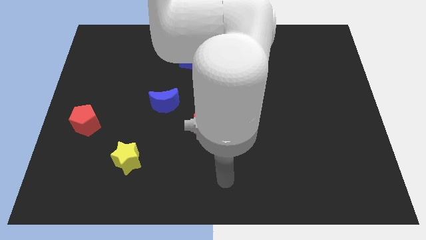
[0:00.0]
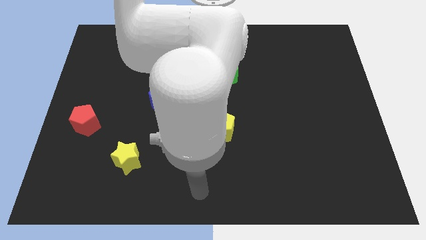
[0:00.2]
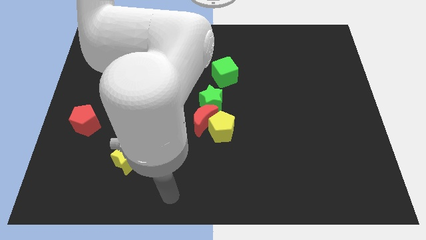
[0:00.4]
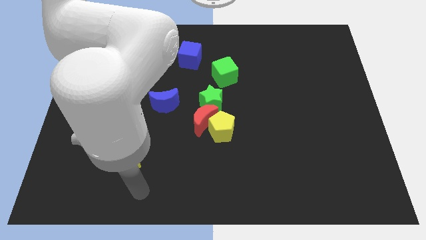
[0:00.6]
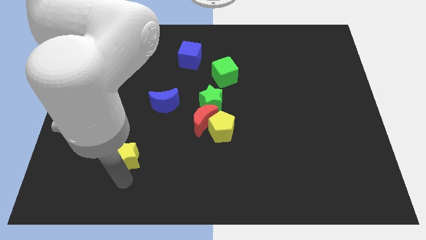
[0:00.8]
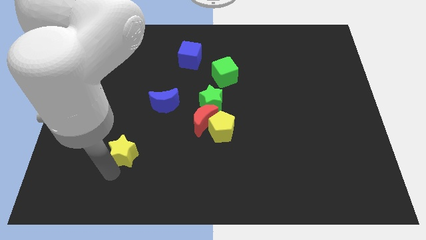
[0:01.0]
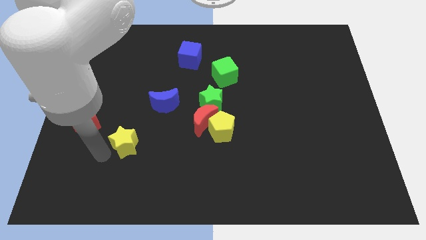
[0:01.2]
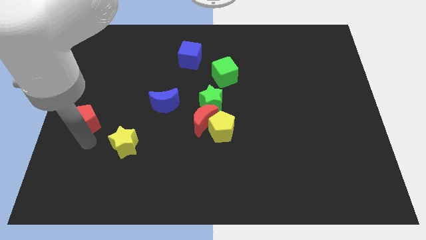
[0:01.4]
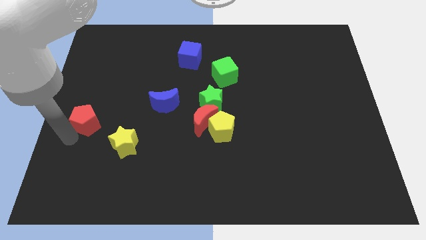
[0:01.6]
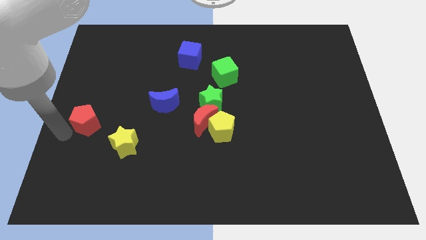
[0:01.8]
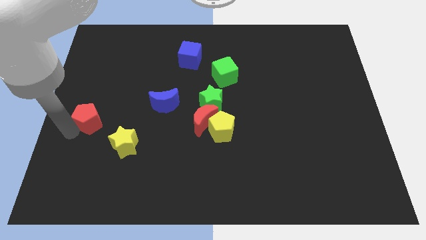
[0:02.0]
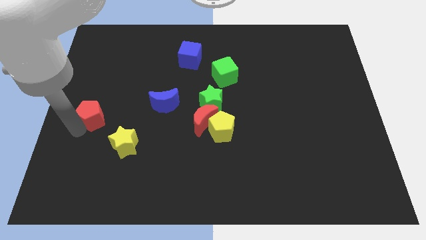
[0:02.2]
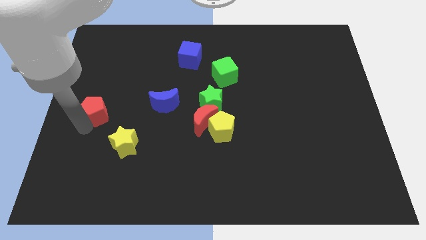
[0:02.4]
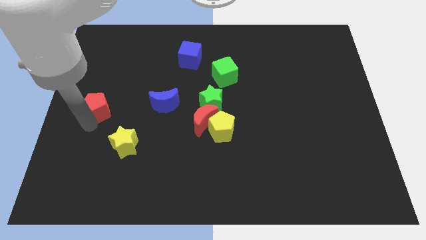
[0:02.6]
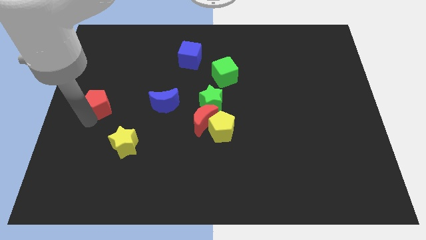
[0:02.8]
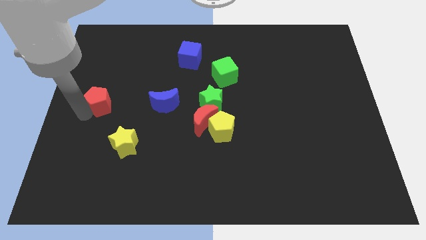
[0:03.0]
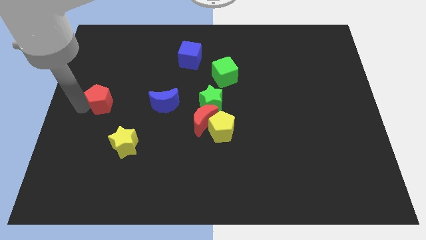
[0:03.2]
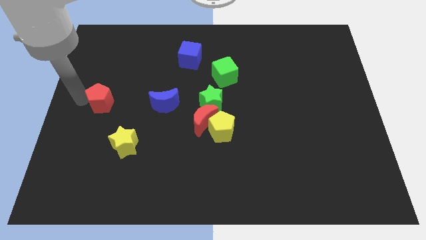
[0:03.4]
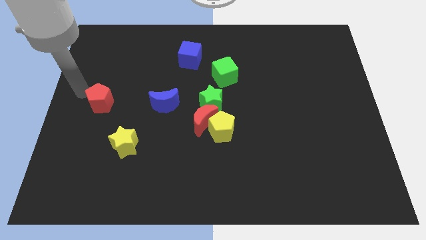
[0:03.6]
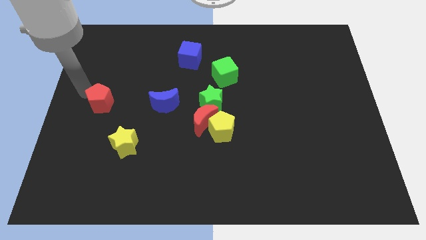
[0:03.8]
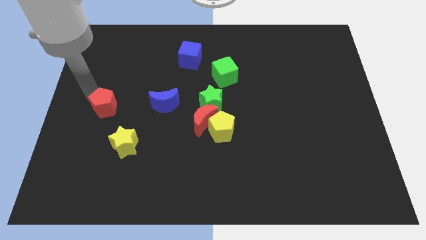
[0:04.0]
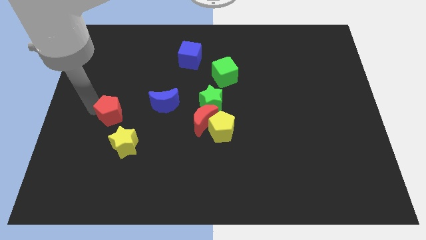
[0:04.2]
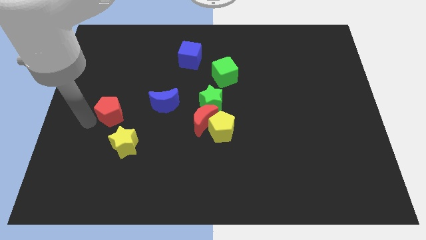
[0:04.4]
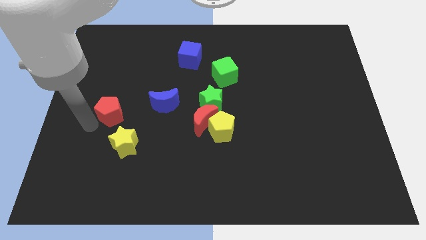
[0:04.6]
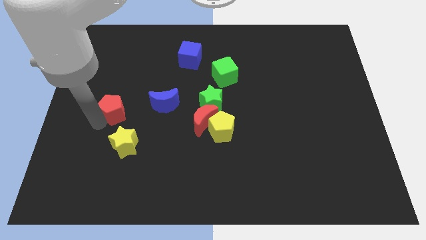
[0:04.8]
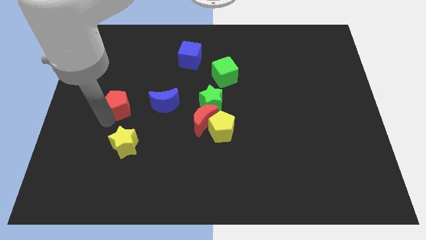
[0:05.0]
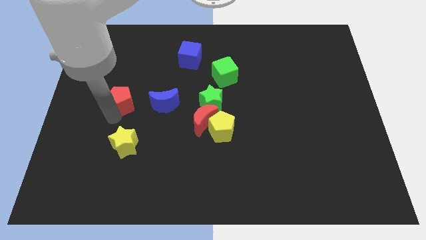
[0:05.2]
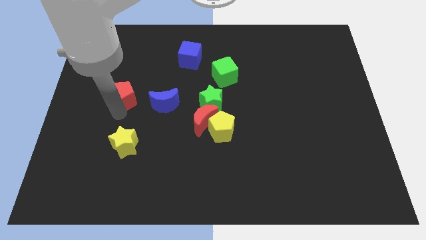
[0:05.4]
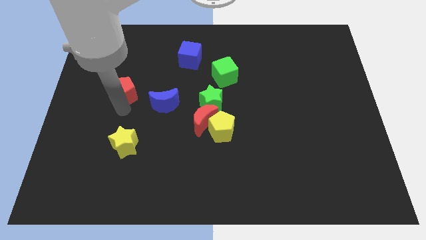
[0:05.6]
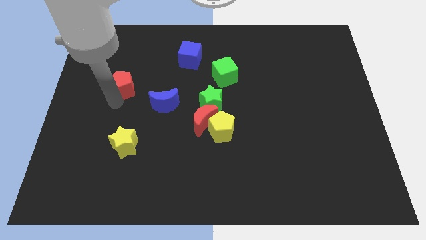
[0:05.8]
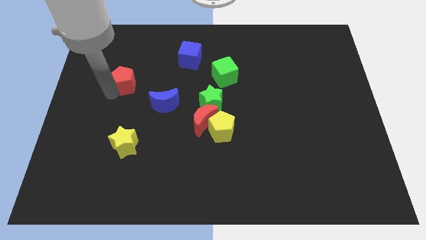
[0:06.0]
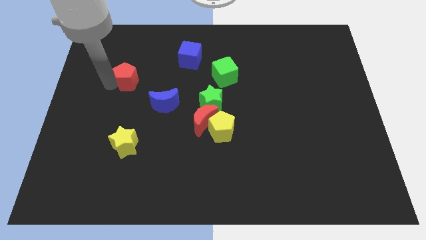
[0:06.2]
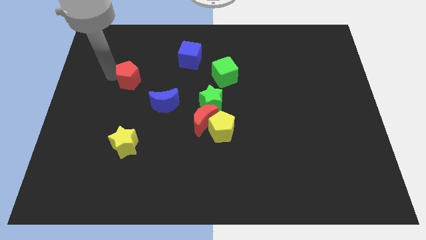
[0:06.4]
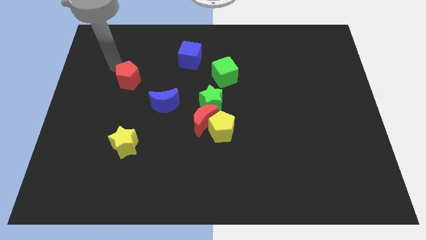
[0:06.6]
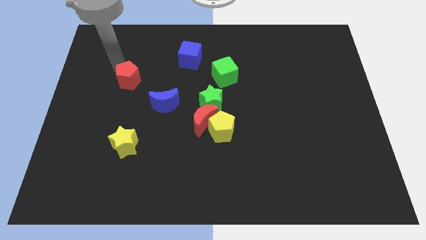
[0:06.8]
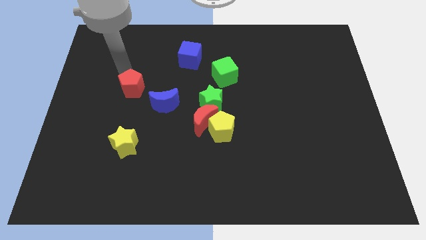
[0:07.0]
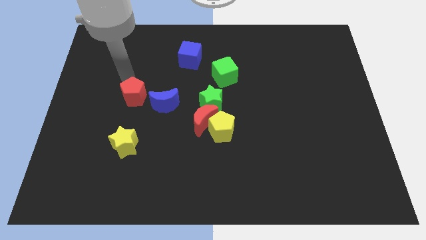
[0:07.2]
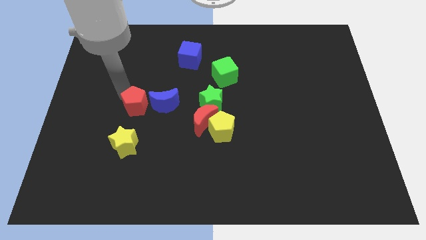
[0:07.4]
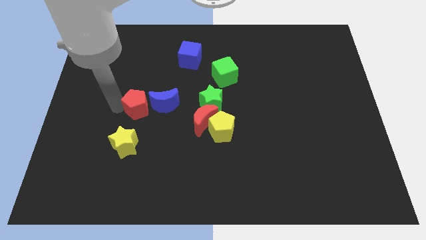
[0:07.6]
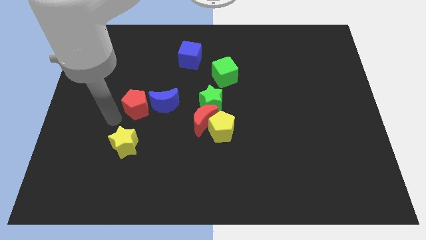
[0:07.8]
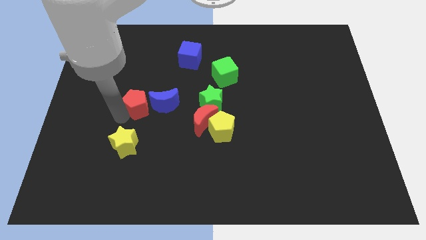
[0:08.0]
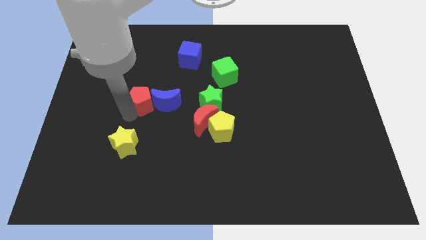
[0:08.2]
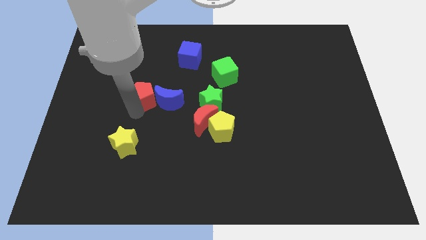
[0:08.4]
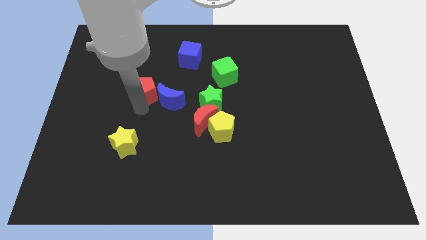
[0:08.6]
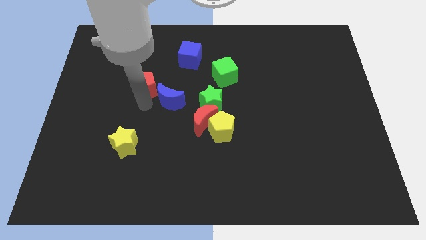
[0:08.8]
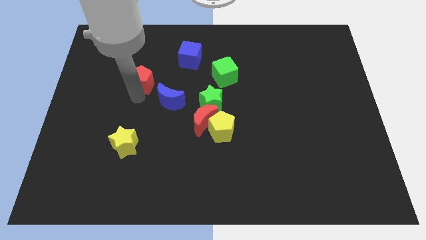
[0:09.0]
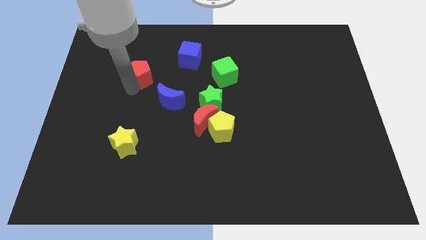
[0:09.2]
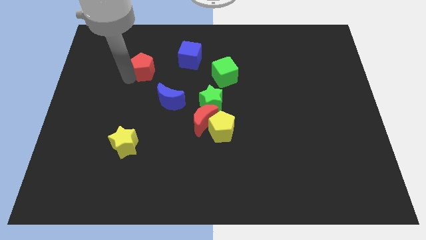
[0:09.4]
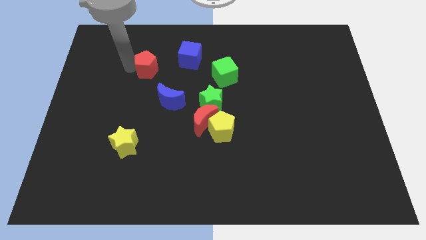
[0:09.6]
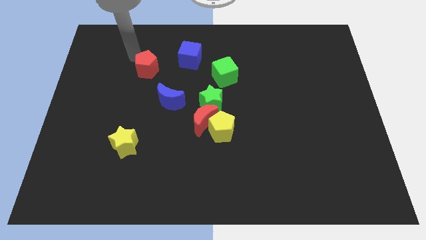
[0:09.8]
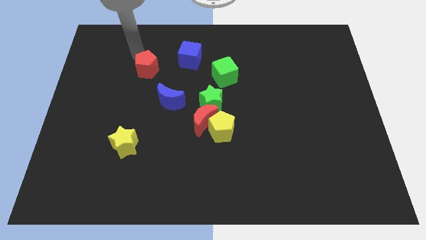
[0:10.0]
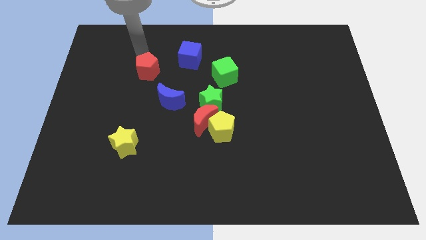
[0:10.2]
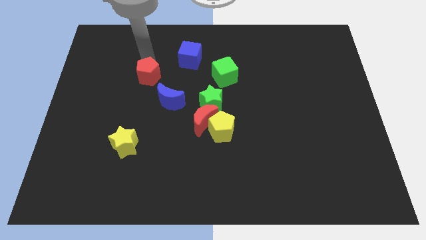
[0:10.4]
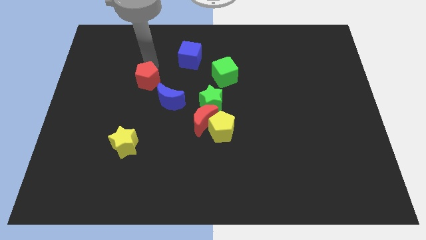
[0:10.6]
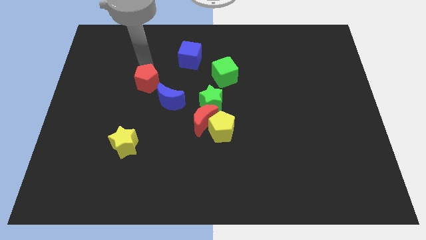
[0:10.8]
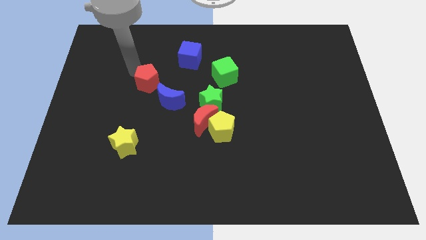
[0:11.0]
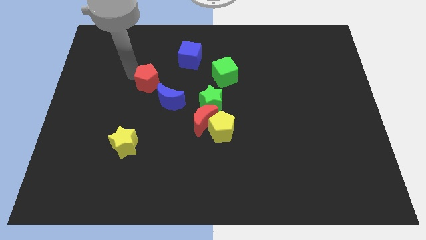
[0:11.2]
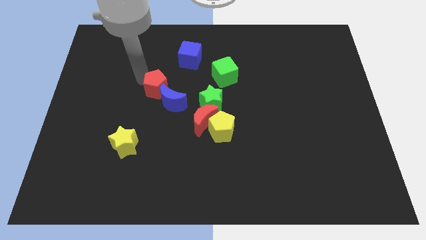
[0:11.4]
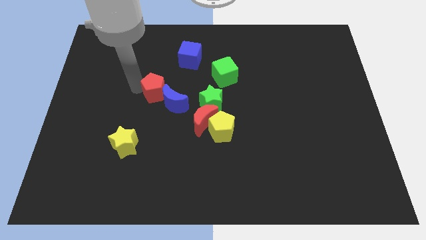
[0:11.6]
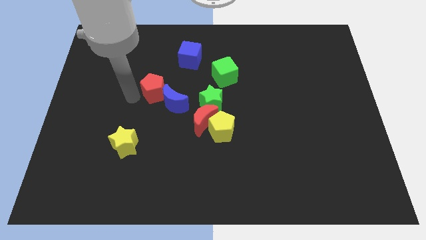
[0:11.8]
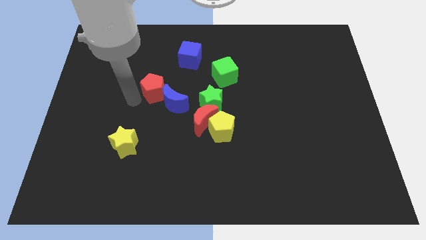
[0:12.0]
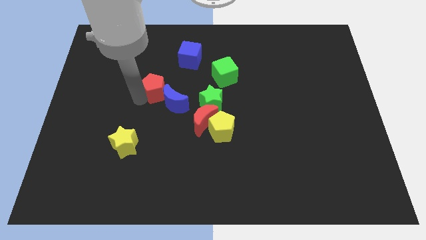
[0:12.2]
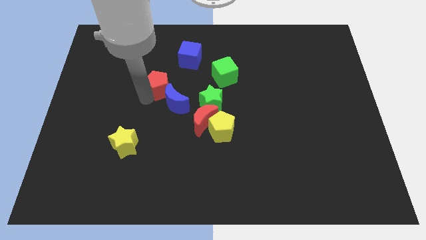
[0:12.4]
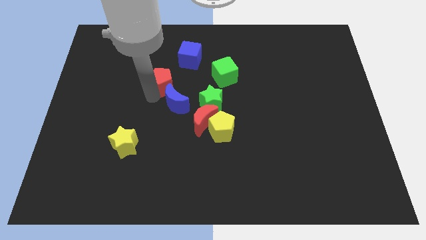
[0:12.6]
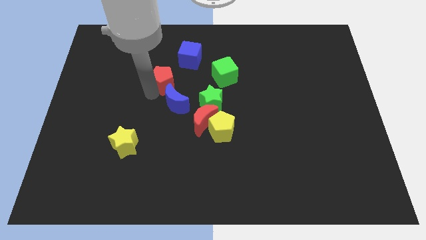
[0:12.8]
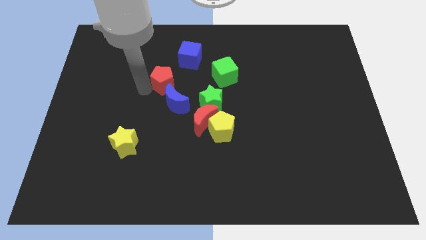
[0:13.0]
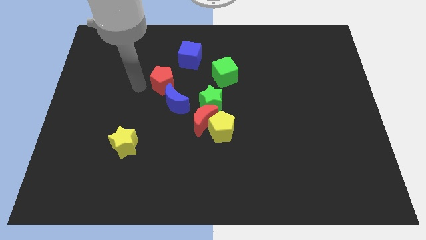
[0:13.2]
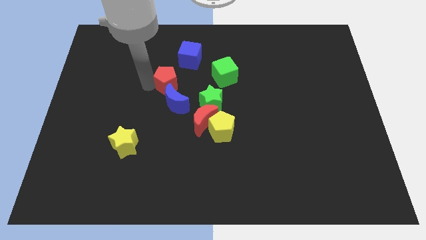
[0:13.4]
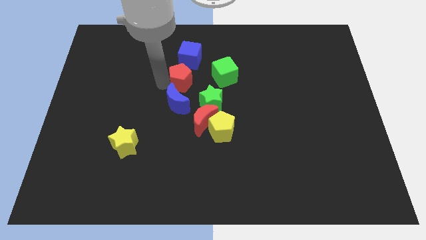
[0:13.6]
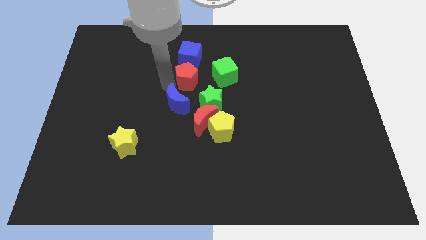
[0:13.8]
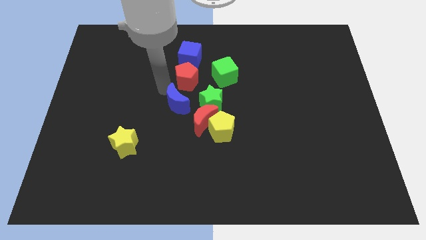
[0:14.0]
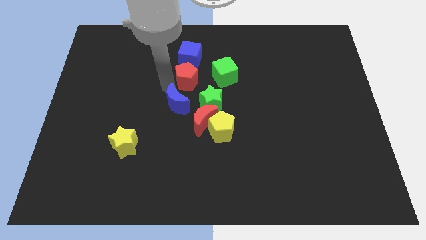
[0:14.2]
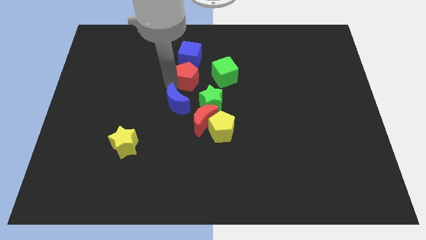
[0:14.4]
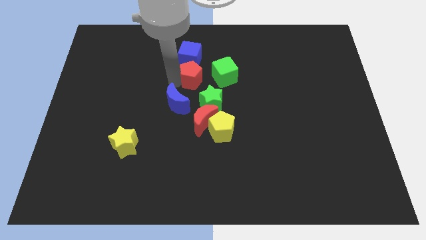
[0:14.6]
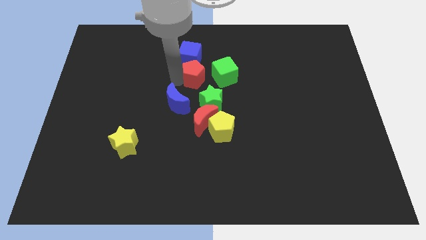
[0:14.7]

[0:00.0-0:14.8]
push the red pentagon above the green star
